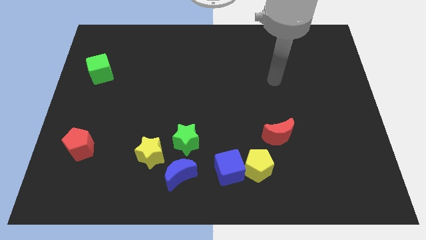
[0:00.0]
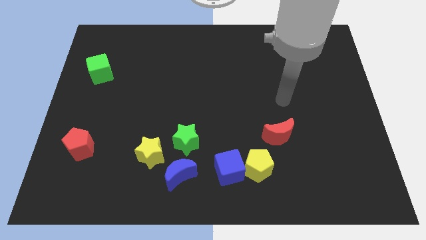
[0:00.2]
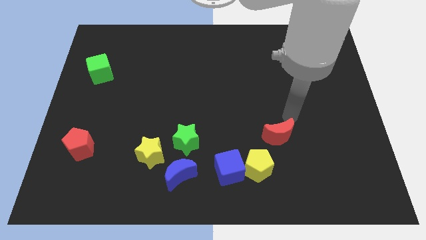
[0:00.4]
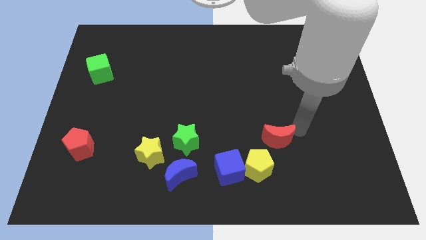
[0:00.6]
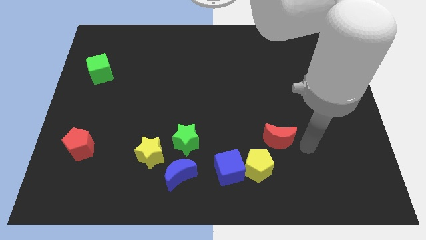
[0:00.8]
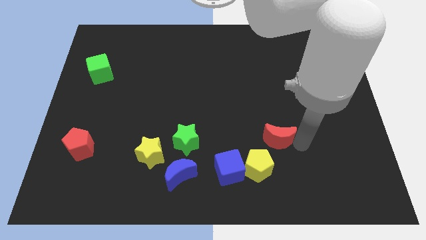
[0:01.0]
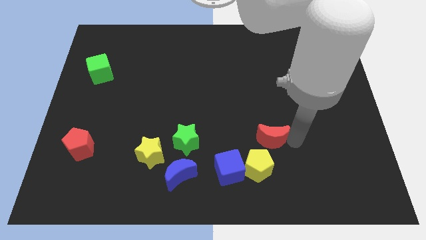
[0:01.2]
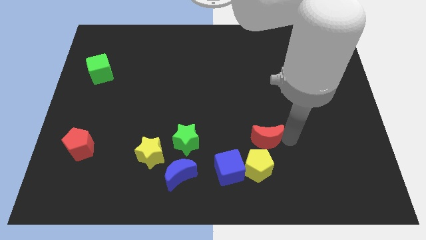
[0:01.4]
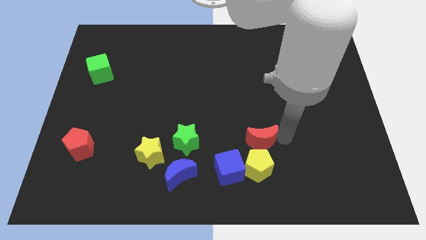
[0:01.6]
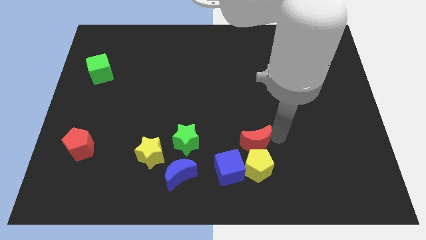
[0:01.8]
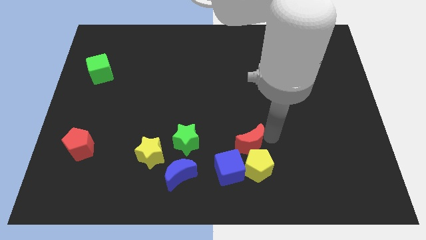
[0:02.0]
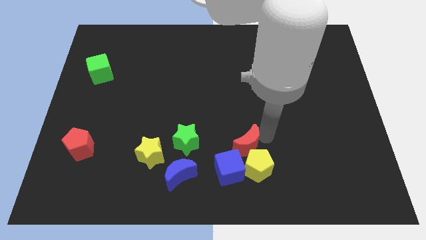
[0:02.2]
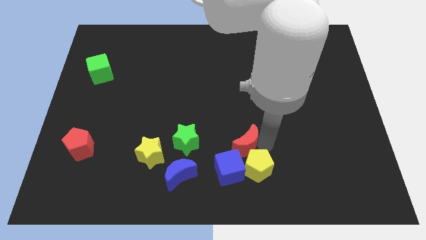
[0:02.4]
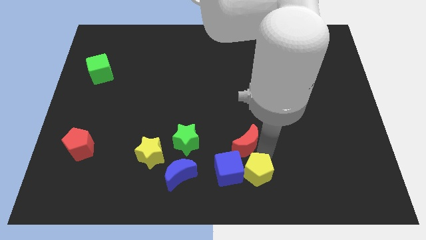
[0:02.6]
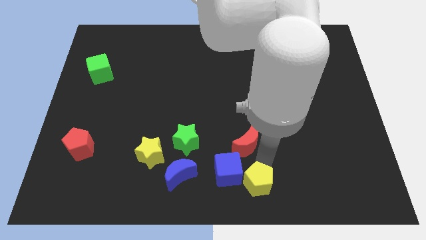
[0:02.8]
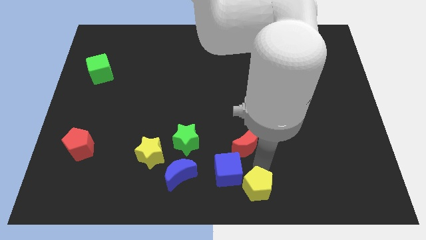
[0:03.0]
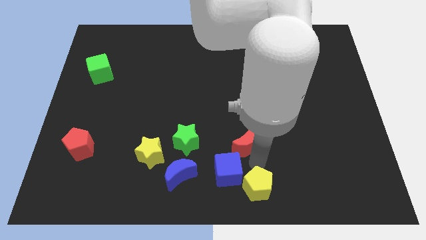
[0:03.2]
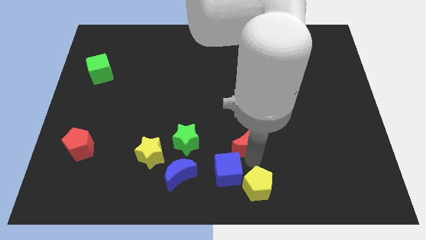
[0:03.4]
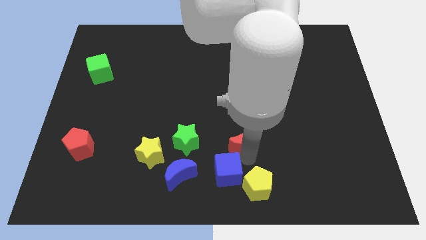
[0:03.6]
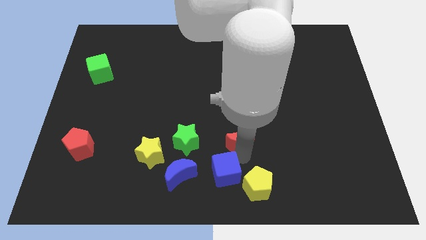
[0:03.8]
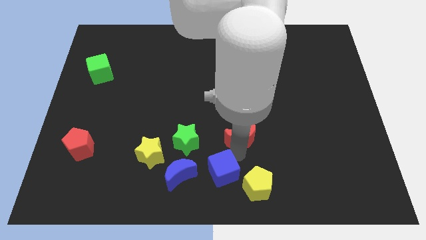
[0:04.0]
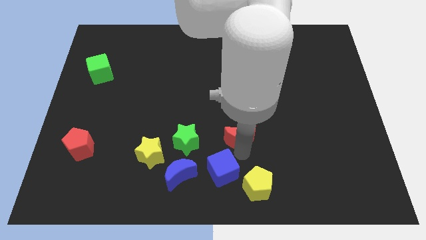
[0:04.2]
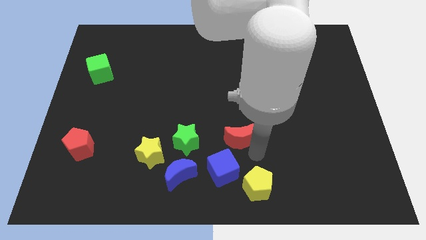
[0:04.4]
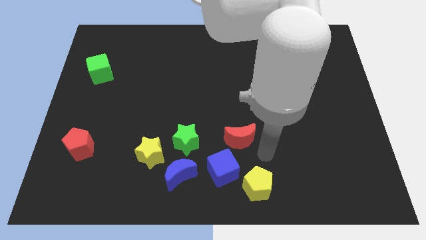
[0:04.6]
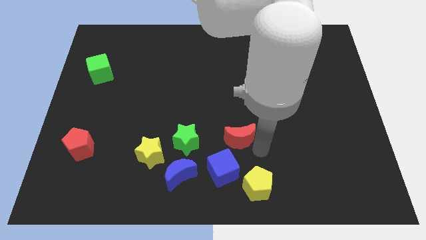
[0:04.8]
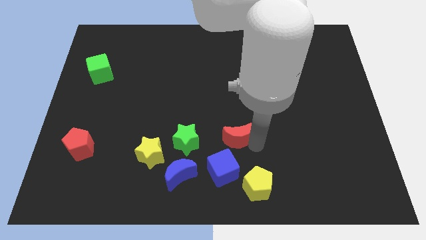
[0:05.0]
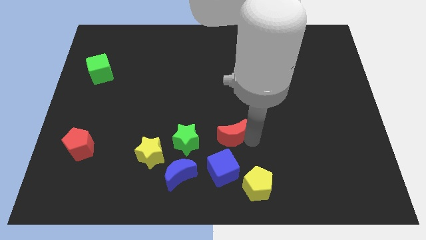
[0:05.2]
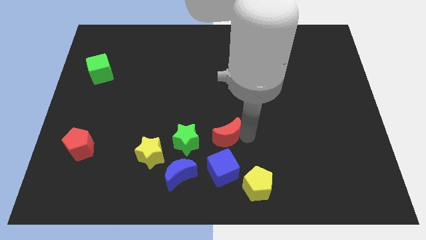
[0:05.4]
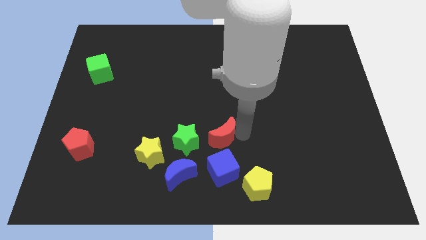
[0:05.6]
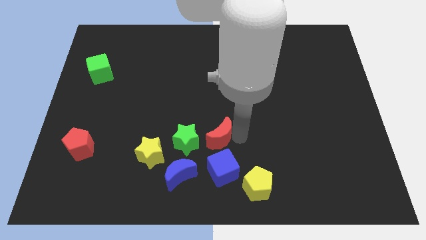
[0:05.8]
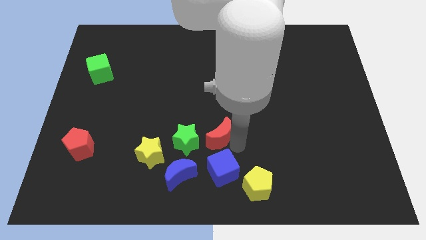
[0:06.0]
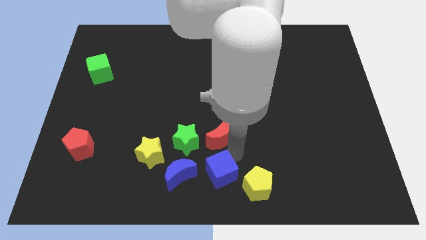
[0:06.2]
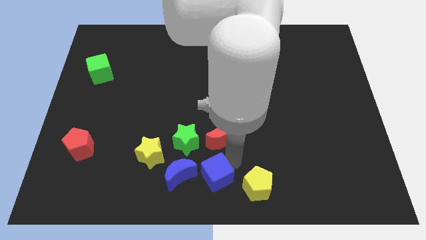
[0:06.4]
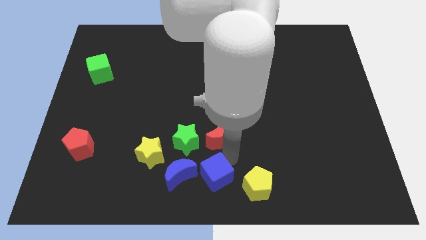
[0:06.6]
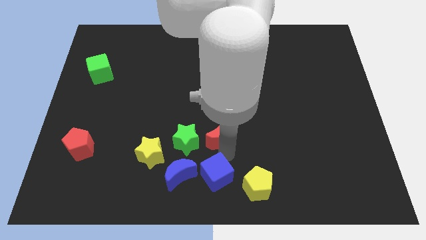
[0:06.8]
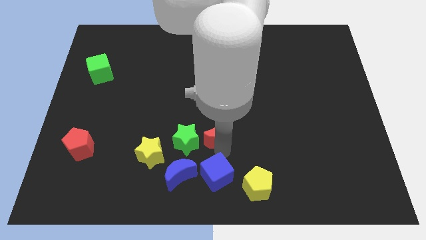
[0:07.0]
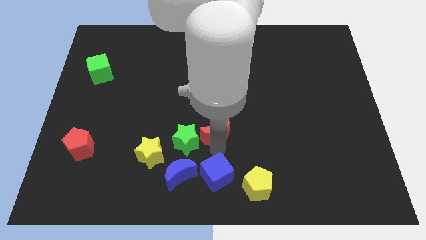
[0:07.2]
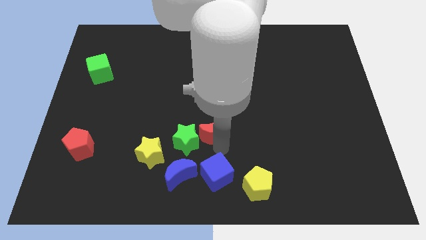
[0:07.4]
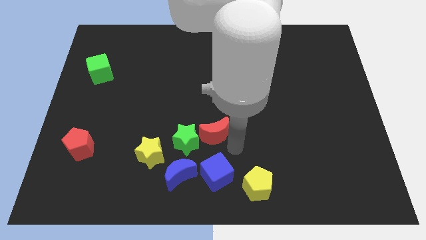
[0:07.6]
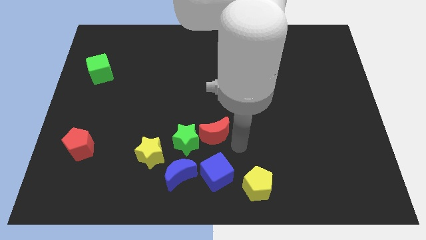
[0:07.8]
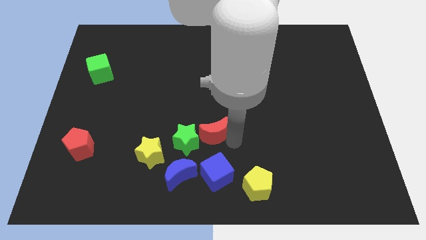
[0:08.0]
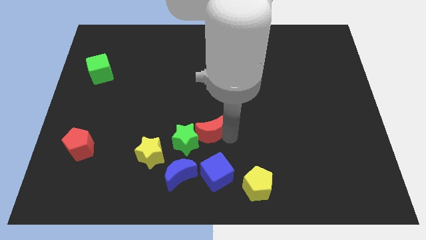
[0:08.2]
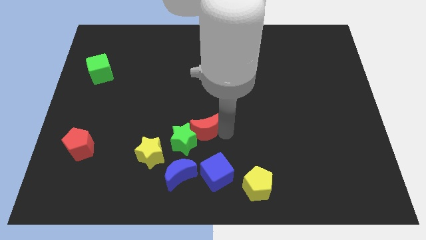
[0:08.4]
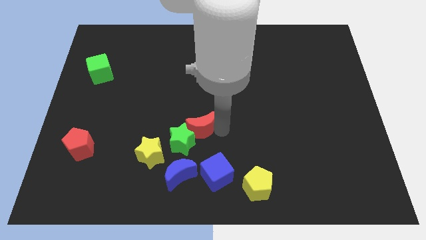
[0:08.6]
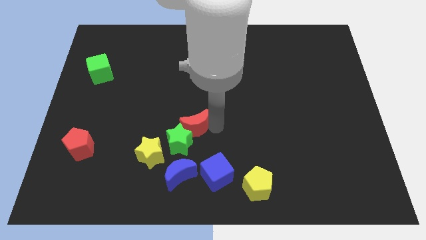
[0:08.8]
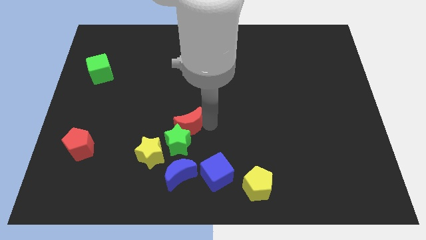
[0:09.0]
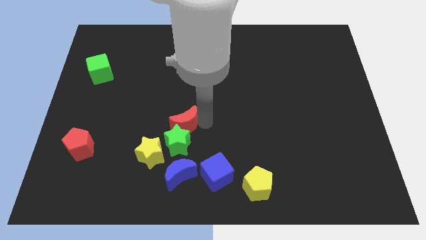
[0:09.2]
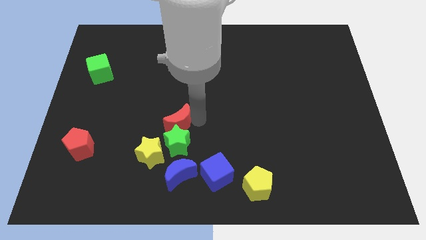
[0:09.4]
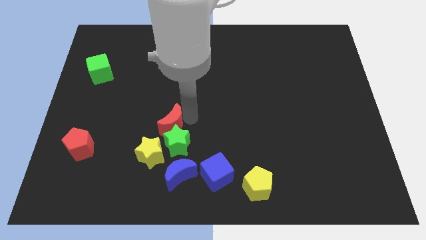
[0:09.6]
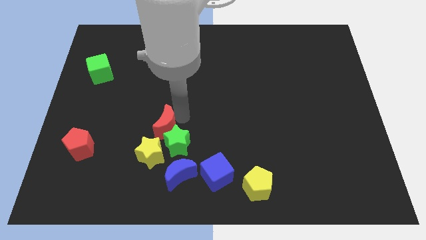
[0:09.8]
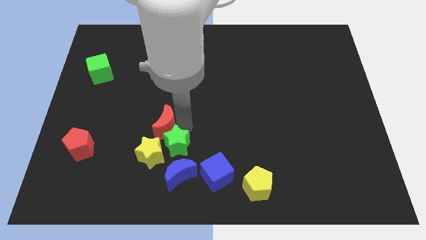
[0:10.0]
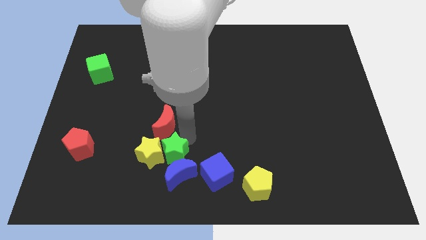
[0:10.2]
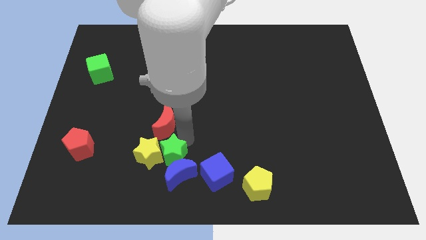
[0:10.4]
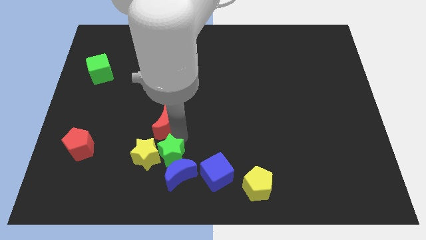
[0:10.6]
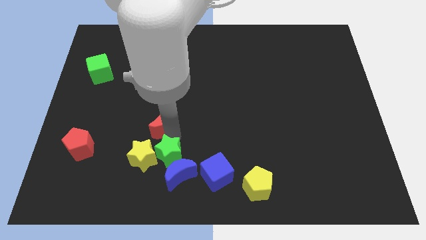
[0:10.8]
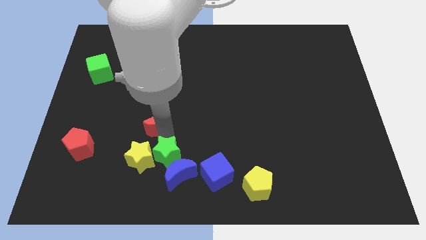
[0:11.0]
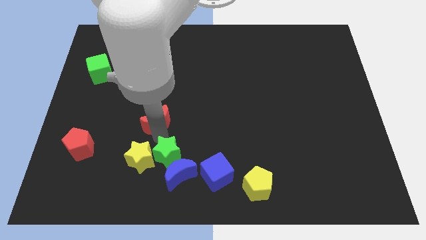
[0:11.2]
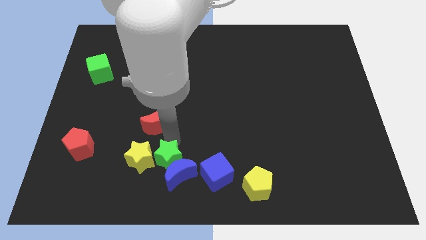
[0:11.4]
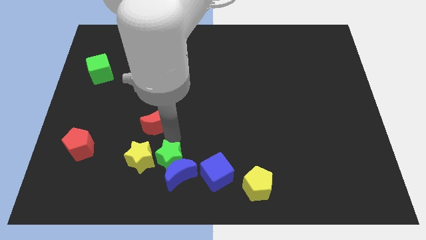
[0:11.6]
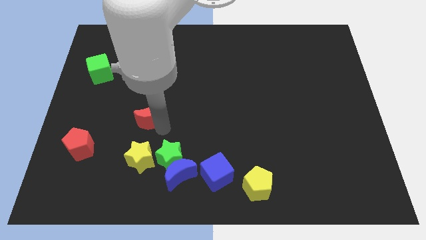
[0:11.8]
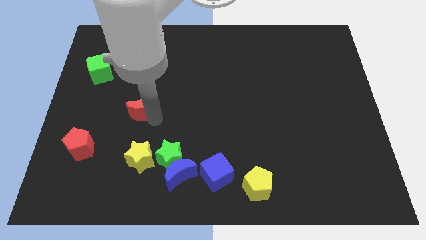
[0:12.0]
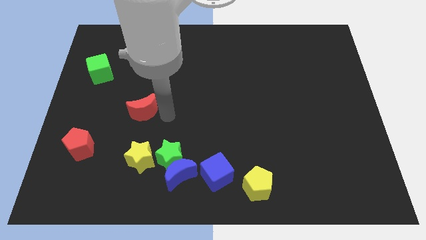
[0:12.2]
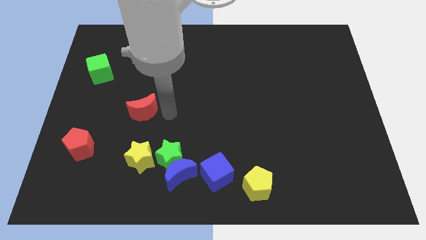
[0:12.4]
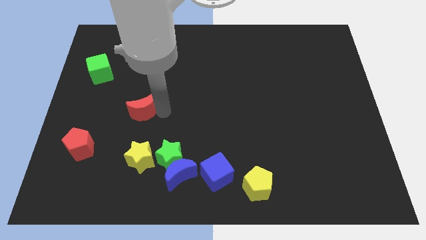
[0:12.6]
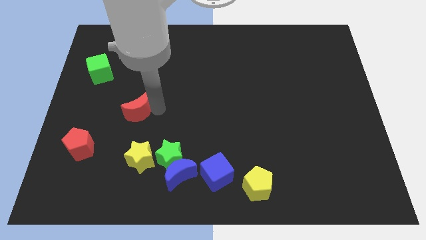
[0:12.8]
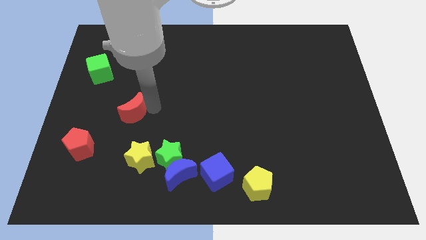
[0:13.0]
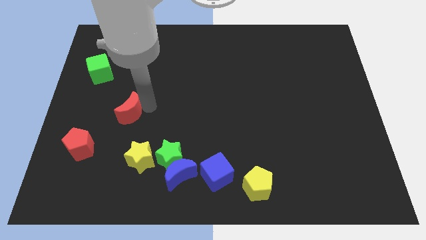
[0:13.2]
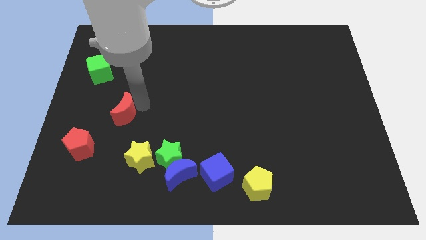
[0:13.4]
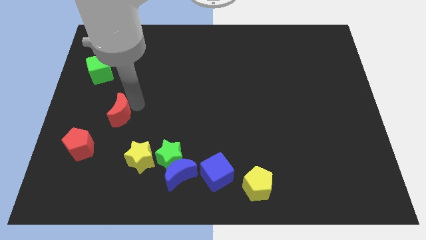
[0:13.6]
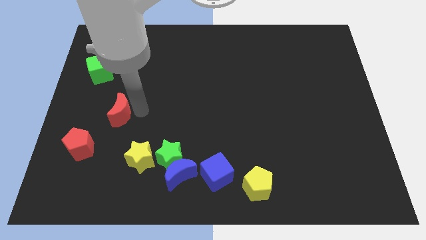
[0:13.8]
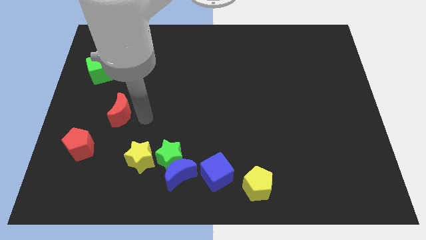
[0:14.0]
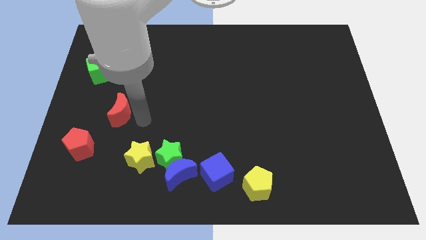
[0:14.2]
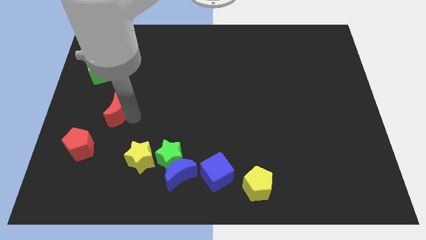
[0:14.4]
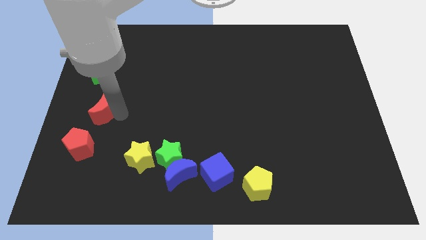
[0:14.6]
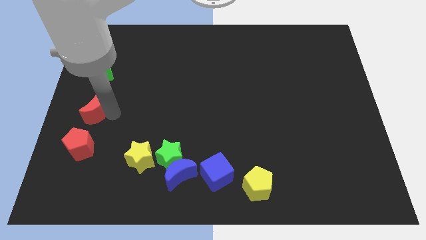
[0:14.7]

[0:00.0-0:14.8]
put the red moon to the left side
